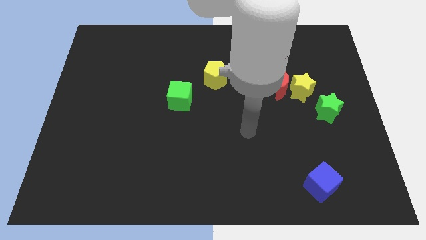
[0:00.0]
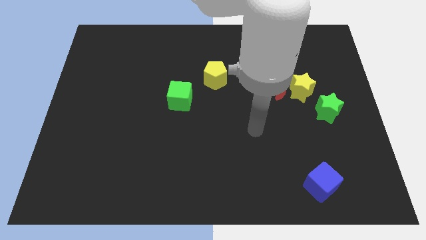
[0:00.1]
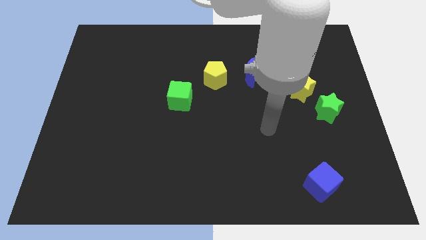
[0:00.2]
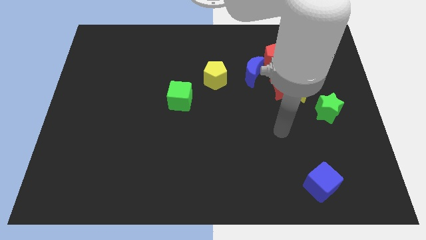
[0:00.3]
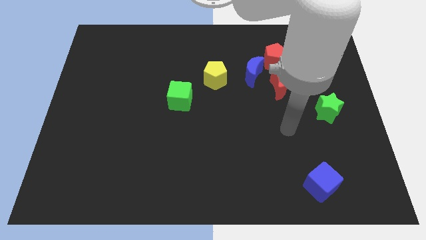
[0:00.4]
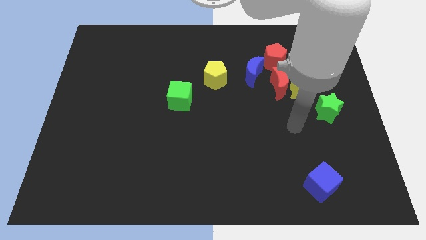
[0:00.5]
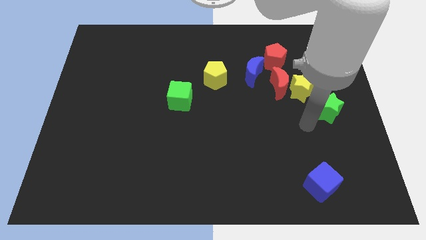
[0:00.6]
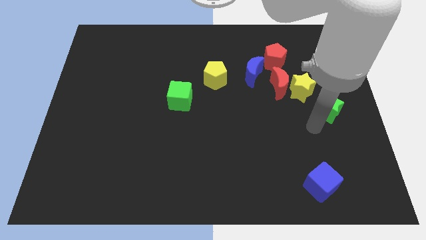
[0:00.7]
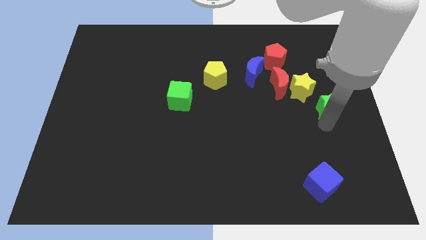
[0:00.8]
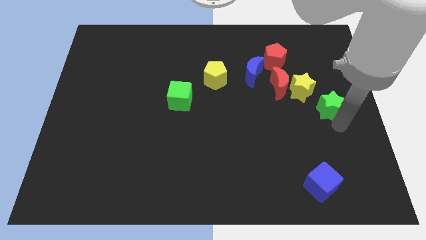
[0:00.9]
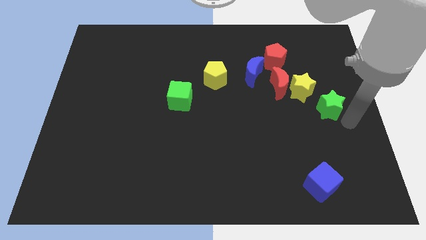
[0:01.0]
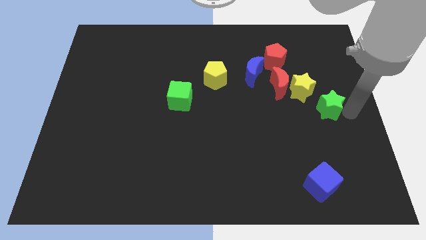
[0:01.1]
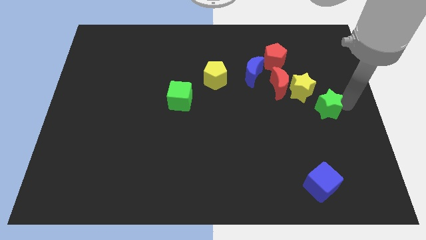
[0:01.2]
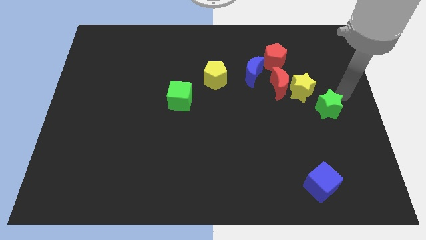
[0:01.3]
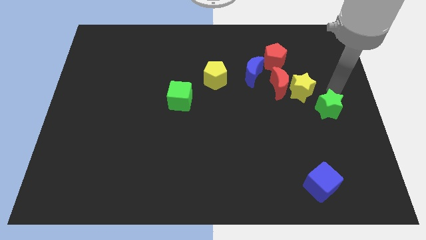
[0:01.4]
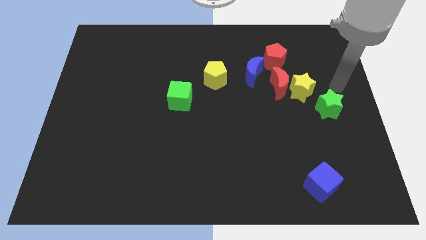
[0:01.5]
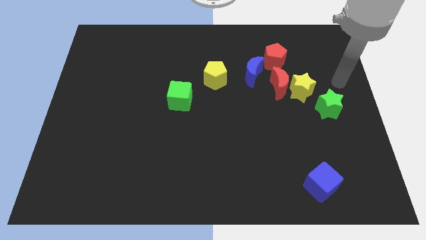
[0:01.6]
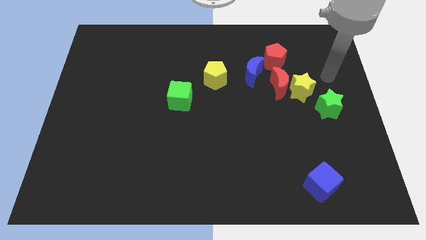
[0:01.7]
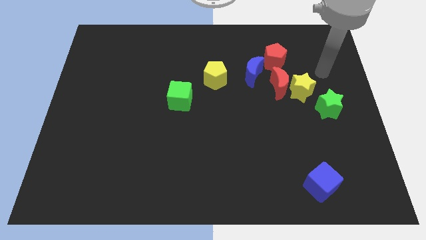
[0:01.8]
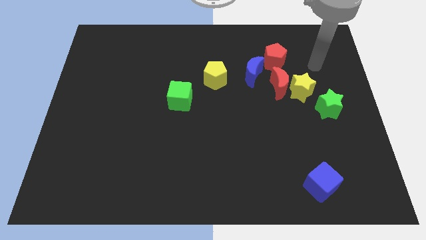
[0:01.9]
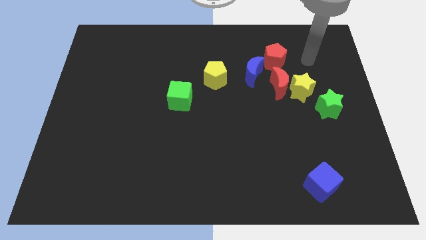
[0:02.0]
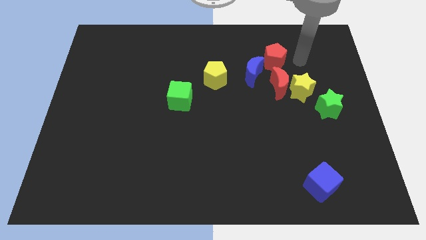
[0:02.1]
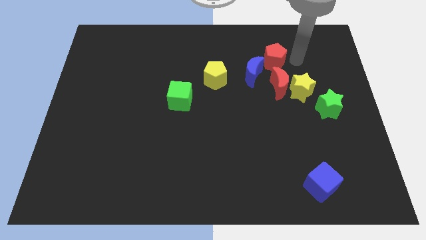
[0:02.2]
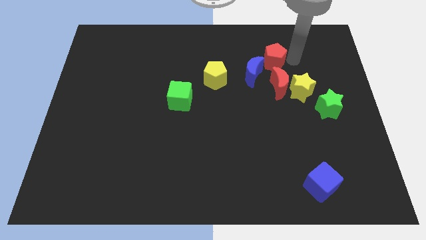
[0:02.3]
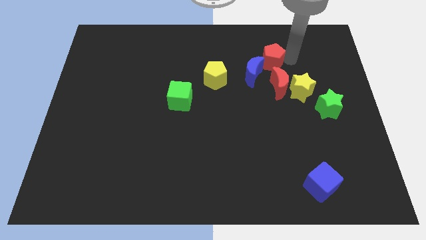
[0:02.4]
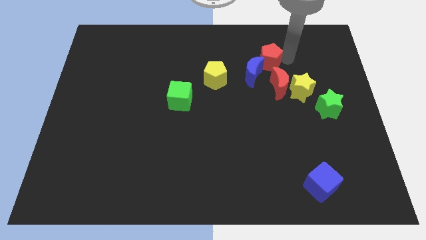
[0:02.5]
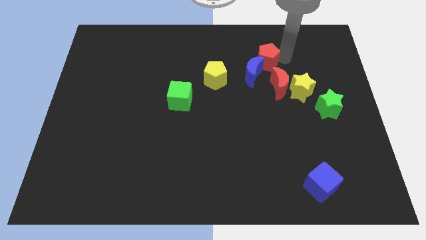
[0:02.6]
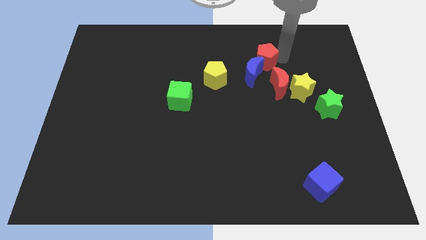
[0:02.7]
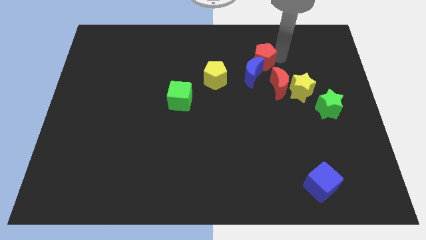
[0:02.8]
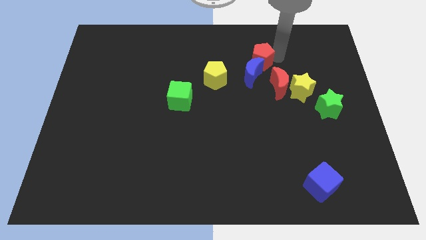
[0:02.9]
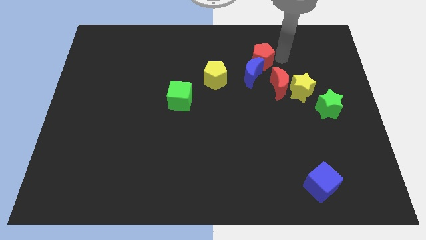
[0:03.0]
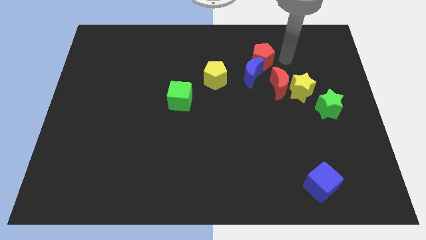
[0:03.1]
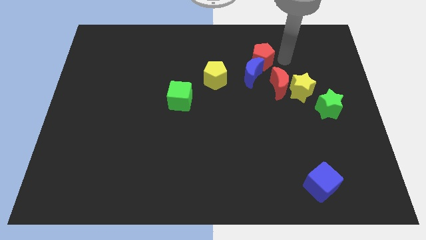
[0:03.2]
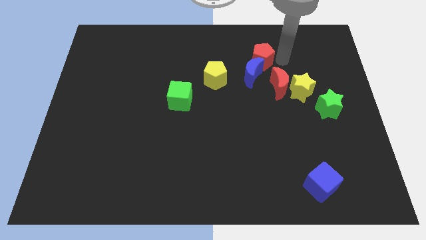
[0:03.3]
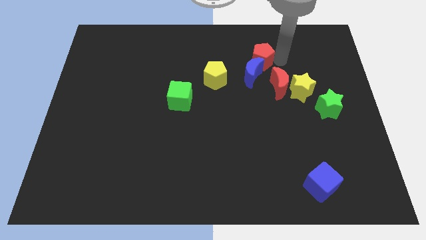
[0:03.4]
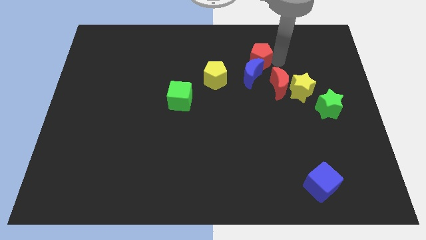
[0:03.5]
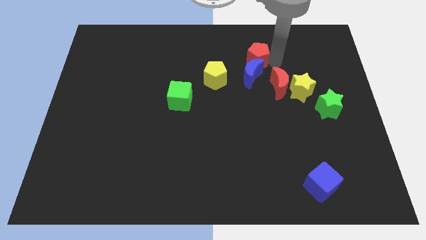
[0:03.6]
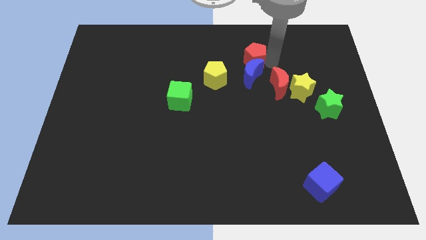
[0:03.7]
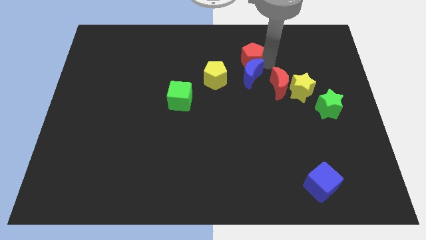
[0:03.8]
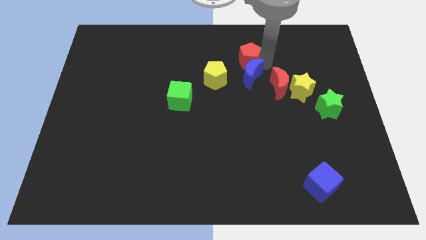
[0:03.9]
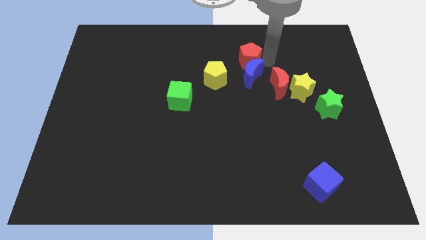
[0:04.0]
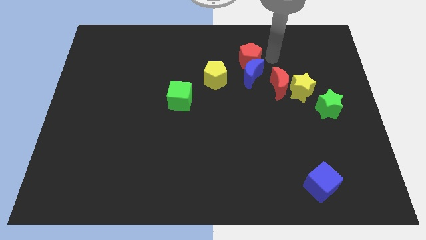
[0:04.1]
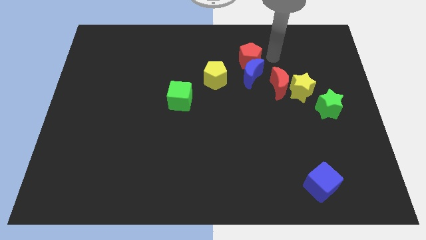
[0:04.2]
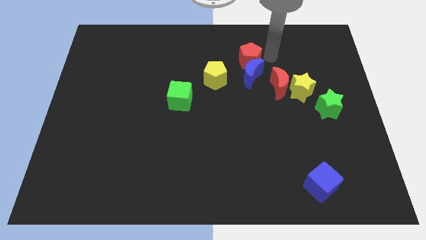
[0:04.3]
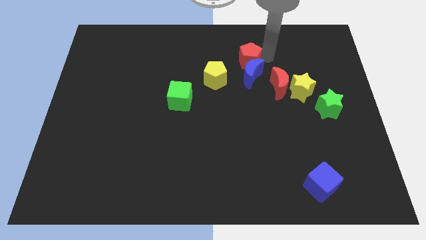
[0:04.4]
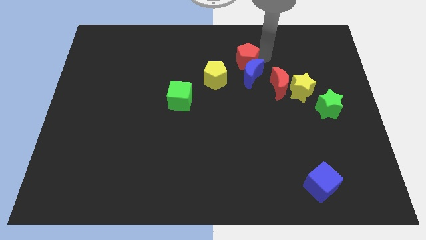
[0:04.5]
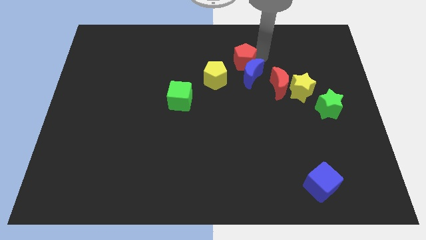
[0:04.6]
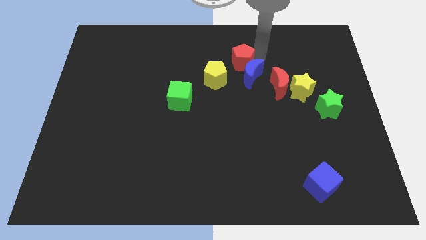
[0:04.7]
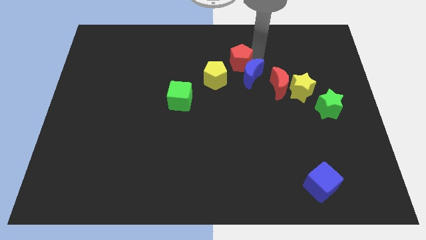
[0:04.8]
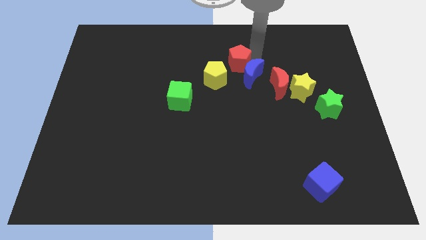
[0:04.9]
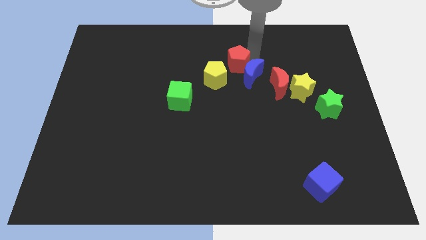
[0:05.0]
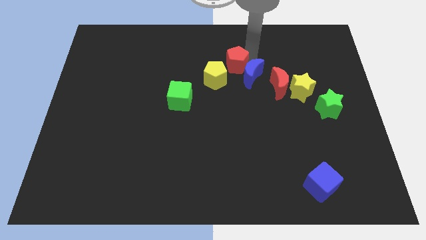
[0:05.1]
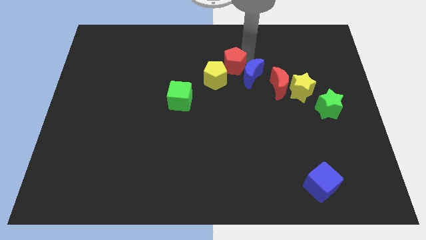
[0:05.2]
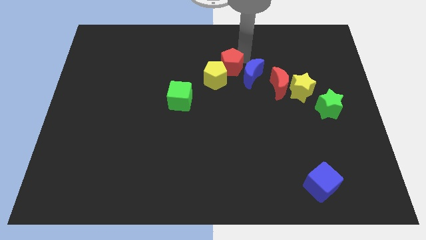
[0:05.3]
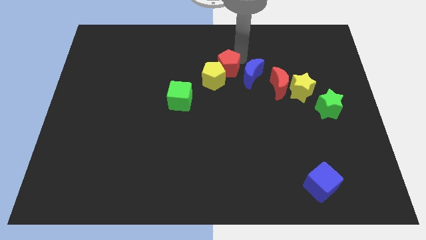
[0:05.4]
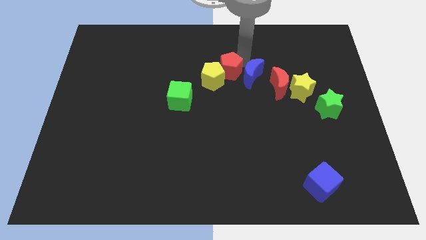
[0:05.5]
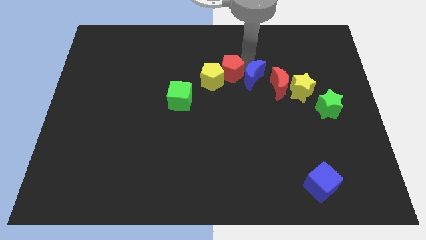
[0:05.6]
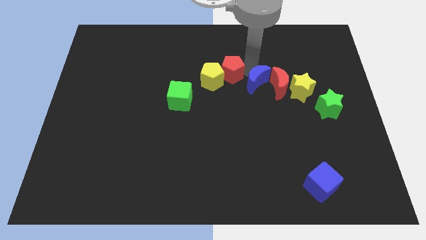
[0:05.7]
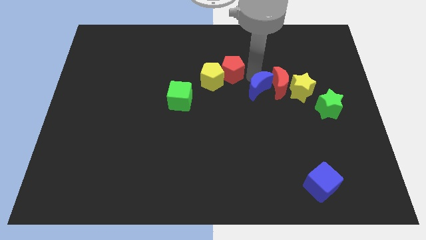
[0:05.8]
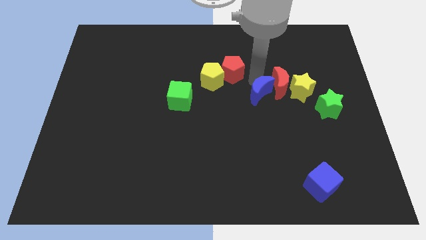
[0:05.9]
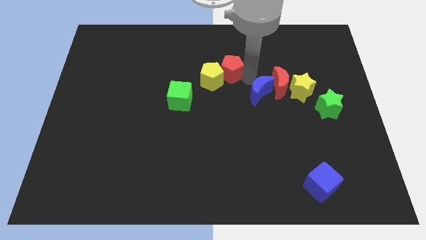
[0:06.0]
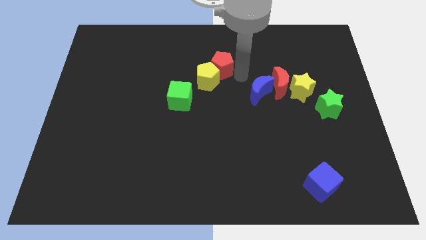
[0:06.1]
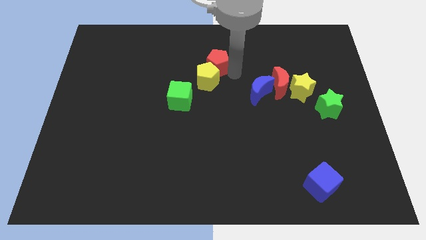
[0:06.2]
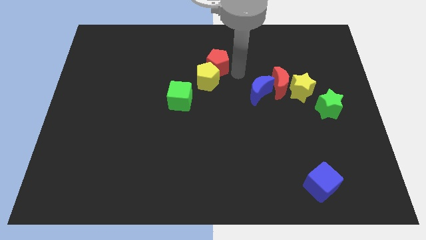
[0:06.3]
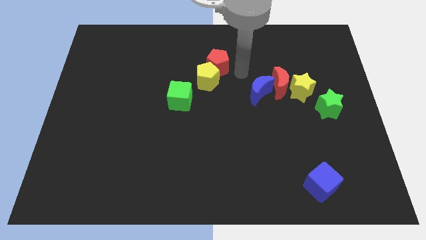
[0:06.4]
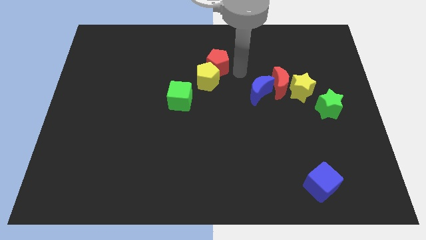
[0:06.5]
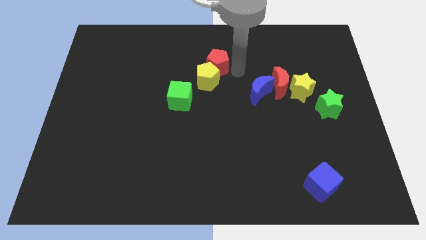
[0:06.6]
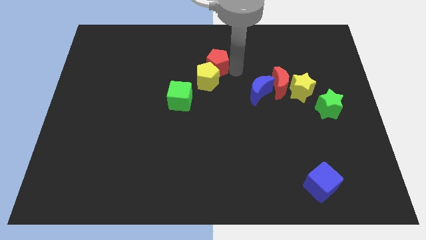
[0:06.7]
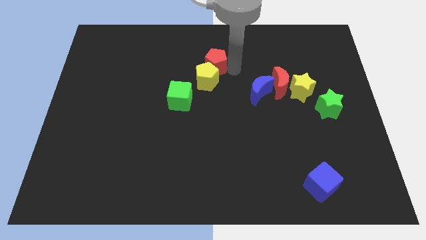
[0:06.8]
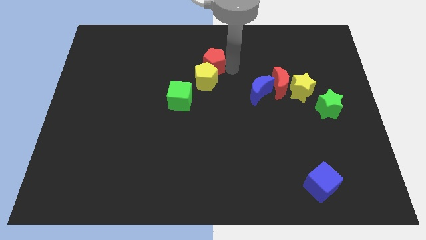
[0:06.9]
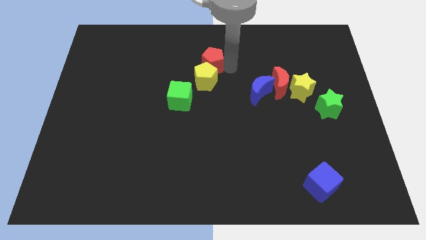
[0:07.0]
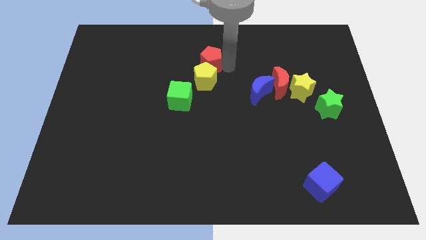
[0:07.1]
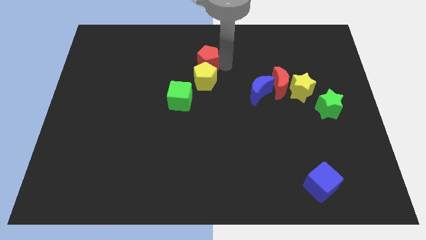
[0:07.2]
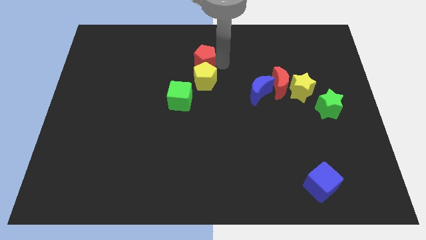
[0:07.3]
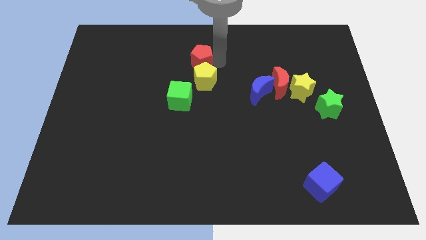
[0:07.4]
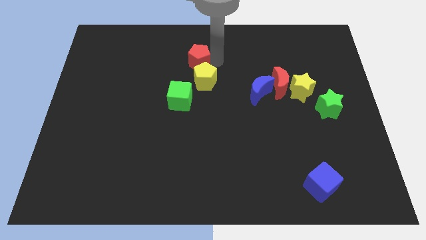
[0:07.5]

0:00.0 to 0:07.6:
move the red pentagon left
